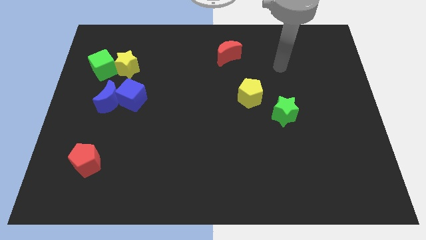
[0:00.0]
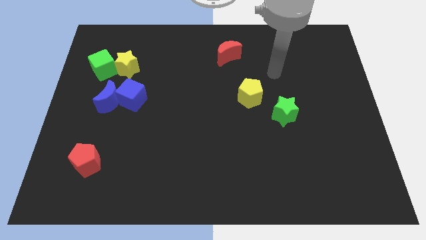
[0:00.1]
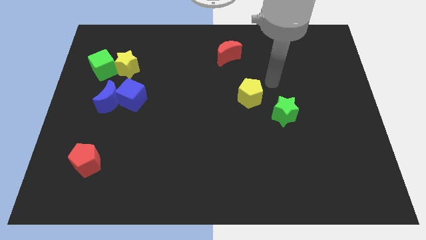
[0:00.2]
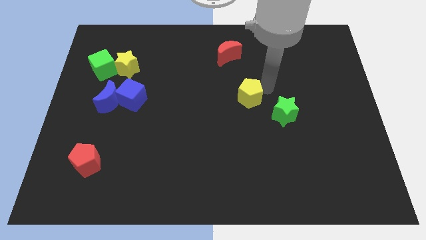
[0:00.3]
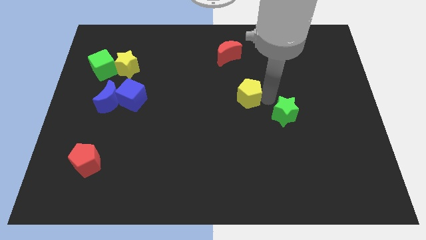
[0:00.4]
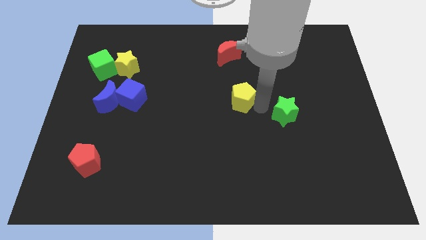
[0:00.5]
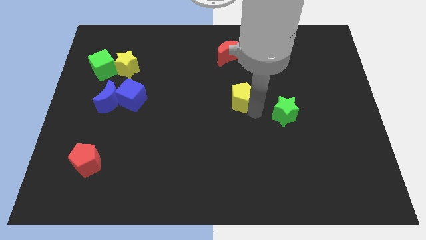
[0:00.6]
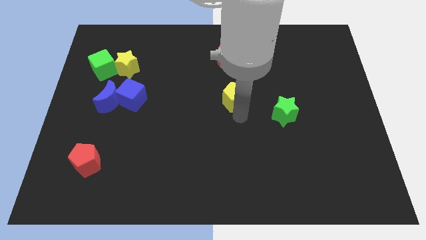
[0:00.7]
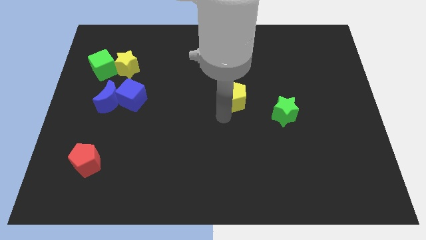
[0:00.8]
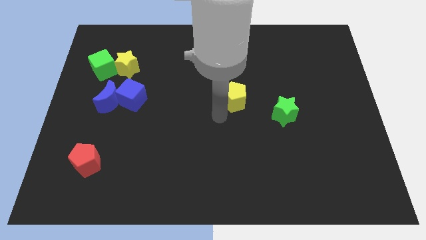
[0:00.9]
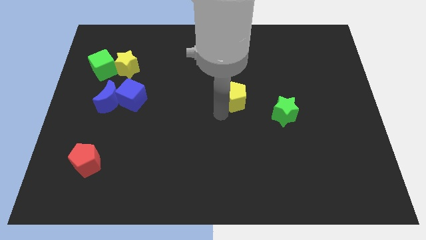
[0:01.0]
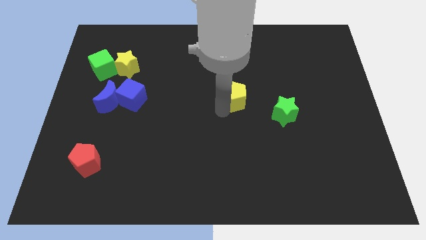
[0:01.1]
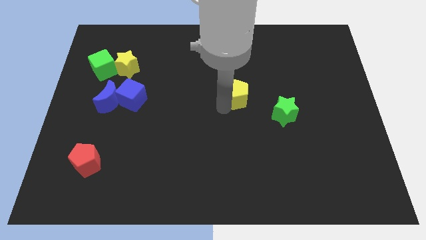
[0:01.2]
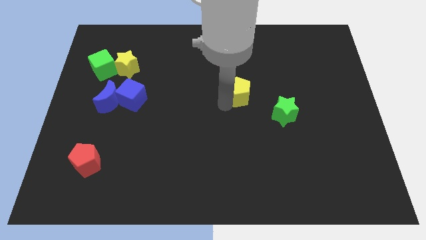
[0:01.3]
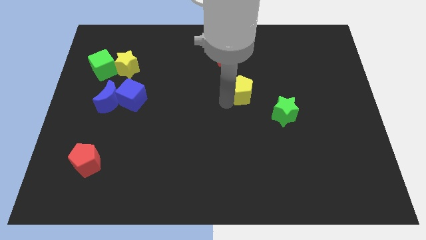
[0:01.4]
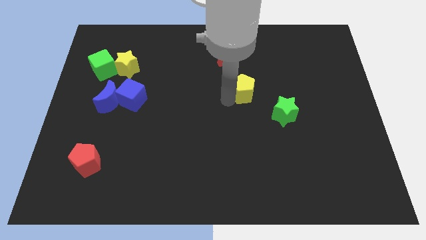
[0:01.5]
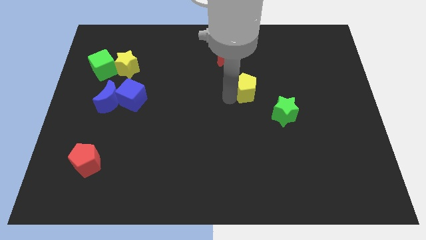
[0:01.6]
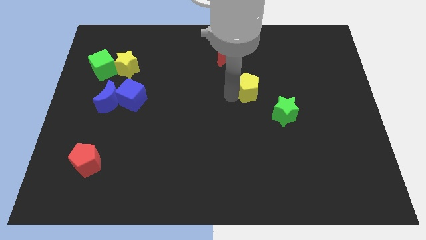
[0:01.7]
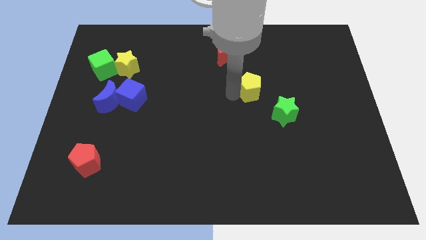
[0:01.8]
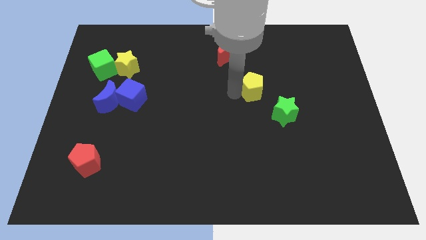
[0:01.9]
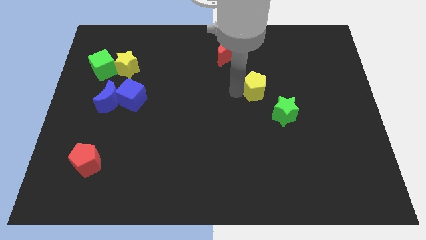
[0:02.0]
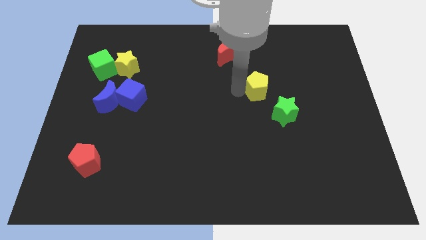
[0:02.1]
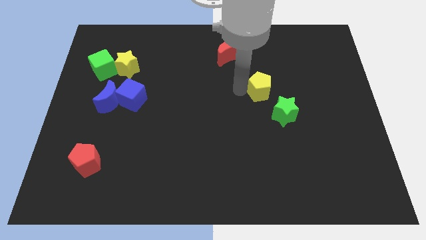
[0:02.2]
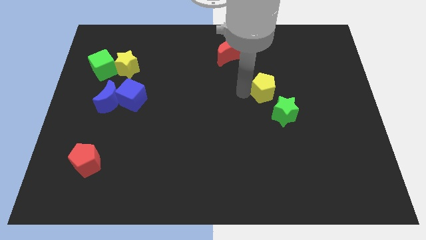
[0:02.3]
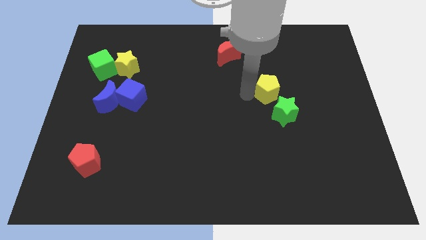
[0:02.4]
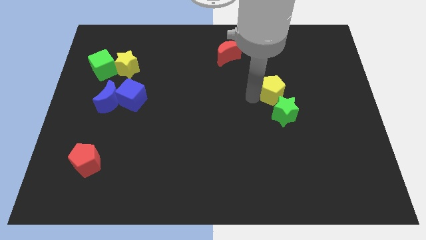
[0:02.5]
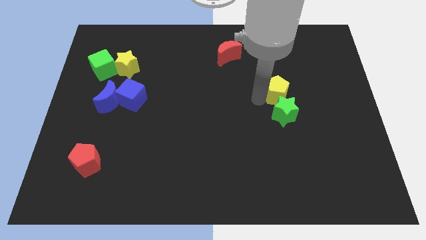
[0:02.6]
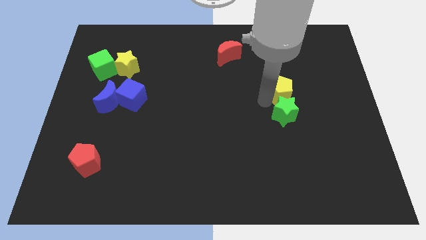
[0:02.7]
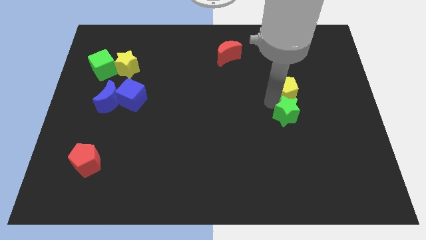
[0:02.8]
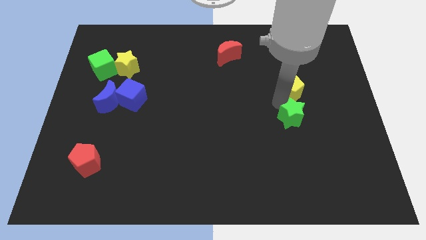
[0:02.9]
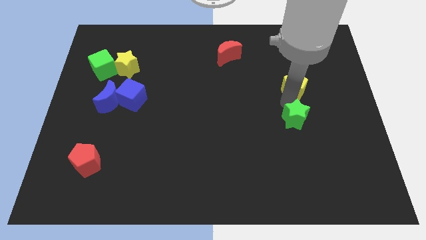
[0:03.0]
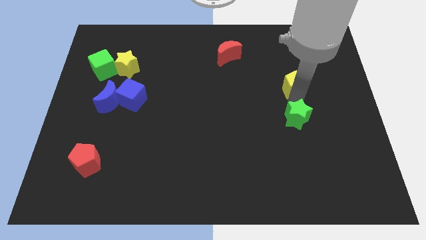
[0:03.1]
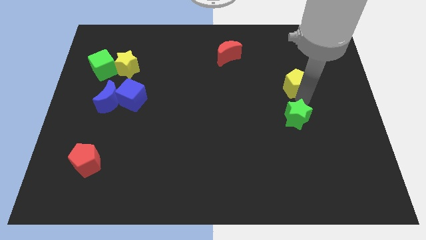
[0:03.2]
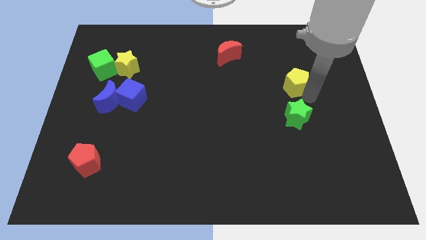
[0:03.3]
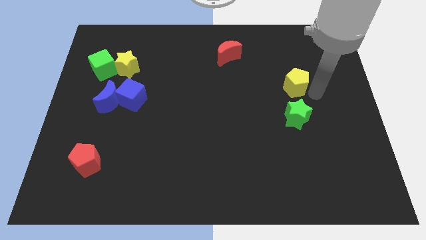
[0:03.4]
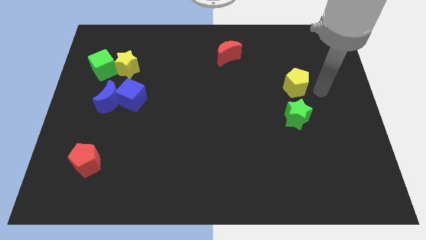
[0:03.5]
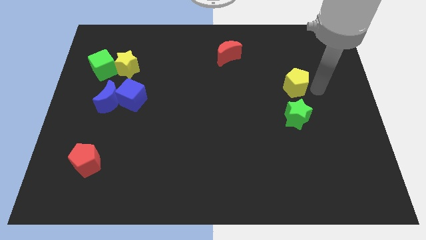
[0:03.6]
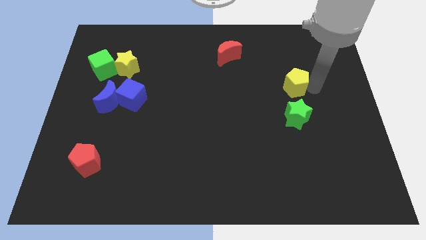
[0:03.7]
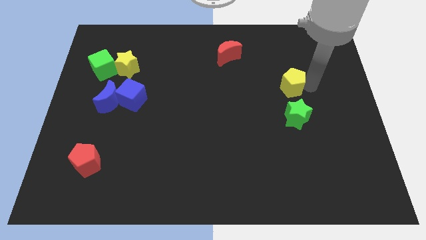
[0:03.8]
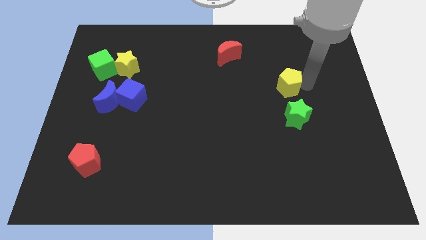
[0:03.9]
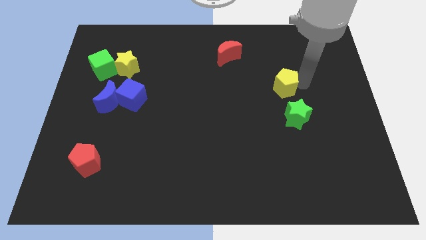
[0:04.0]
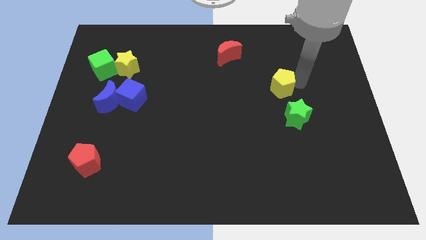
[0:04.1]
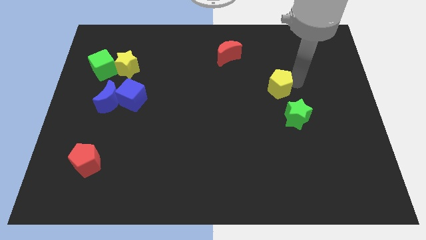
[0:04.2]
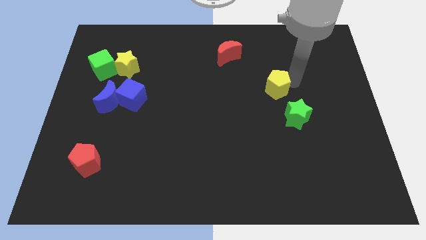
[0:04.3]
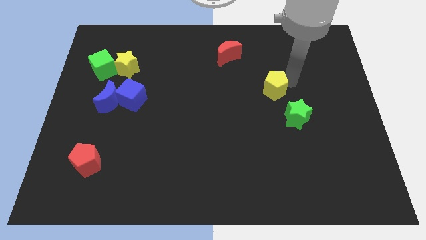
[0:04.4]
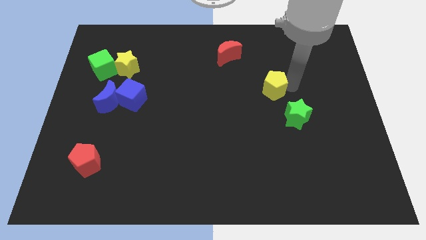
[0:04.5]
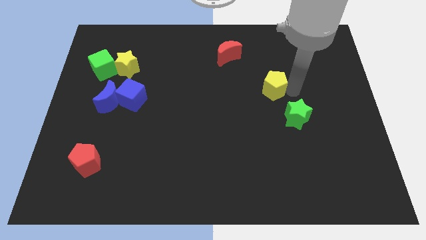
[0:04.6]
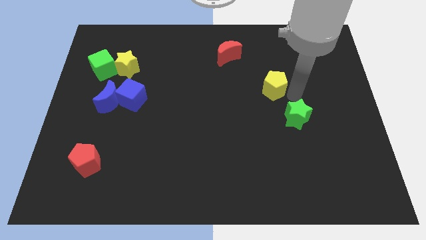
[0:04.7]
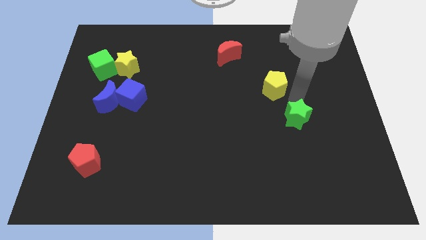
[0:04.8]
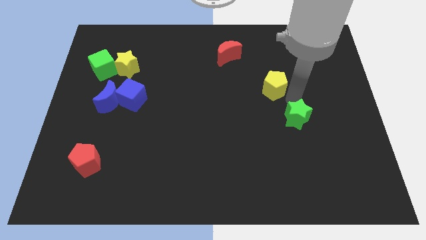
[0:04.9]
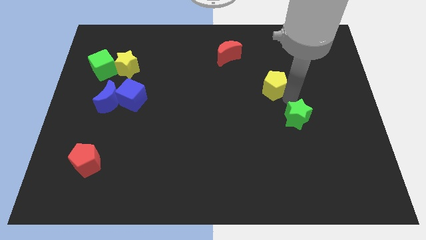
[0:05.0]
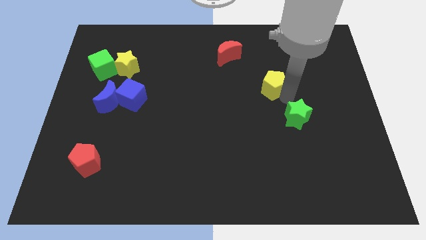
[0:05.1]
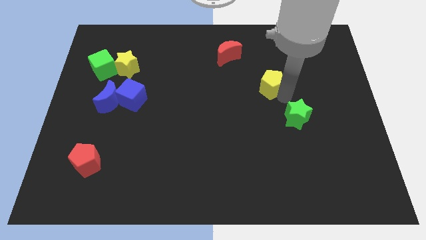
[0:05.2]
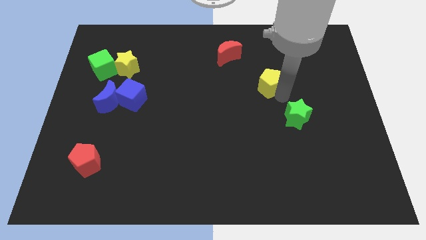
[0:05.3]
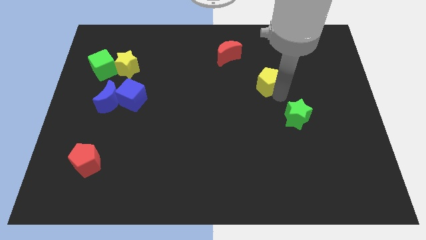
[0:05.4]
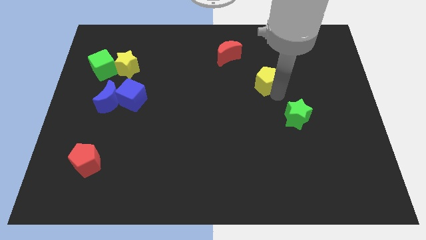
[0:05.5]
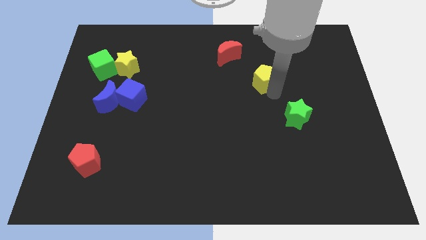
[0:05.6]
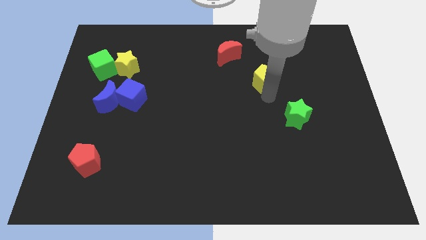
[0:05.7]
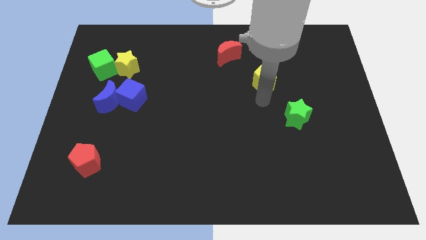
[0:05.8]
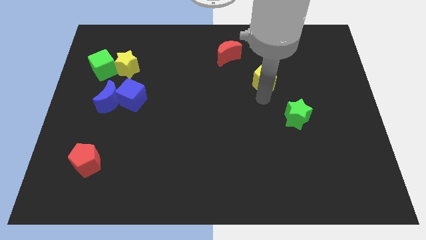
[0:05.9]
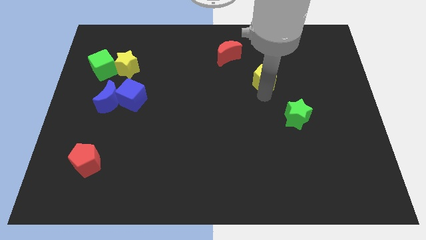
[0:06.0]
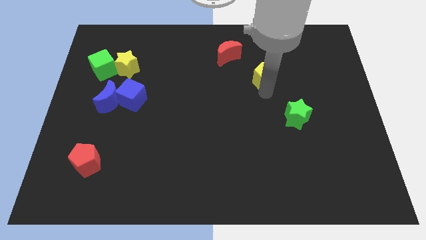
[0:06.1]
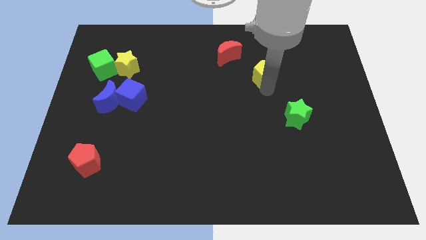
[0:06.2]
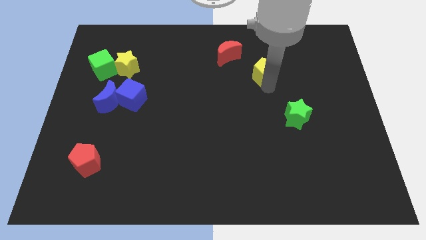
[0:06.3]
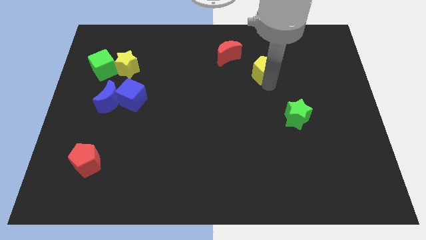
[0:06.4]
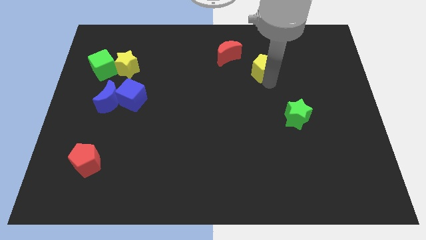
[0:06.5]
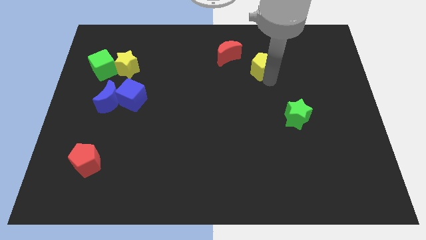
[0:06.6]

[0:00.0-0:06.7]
push the yellow pentagon to the right of the red moon
